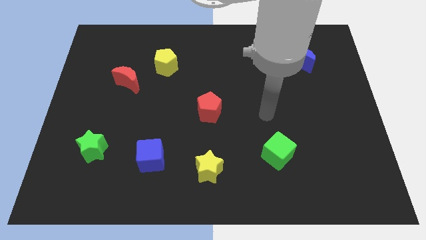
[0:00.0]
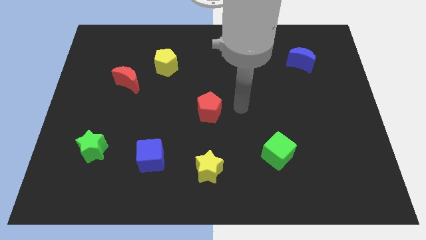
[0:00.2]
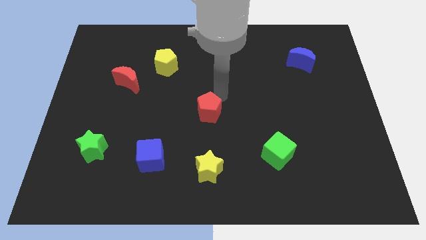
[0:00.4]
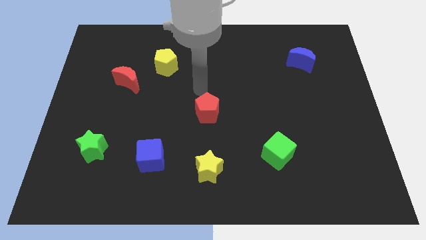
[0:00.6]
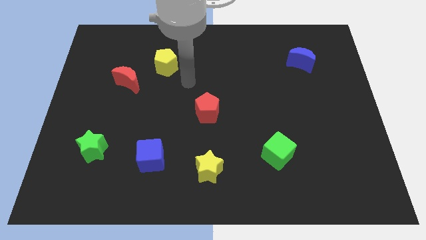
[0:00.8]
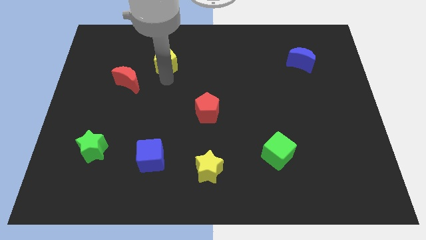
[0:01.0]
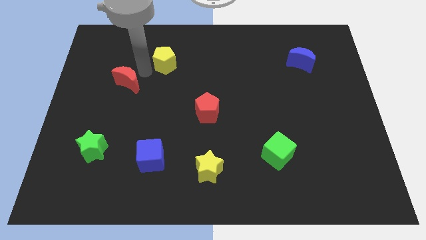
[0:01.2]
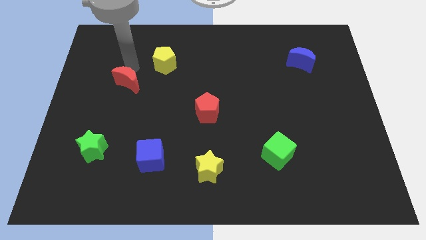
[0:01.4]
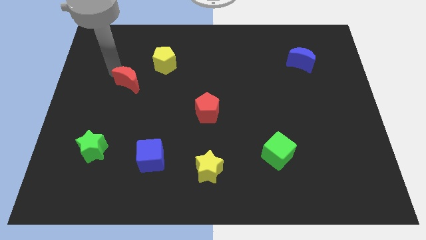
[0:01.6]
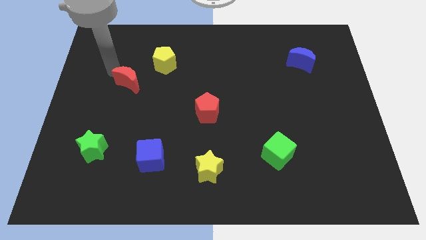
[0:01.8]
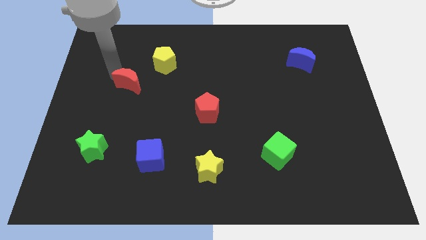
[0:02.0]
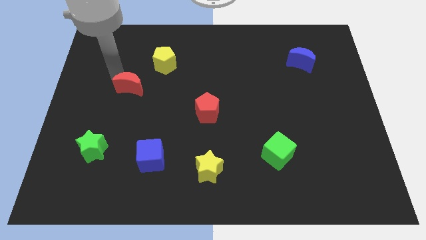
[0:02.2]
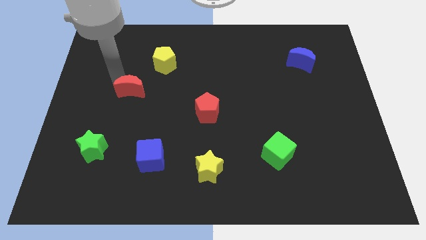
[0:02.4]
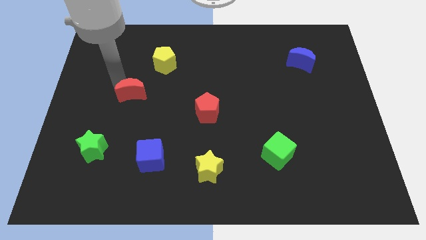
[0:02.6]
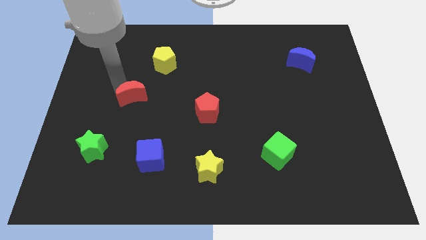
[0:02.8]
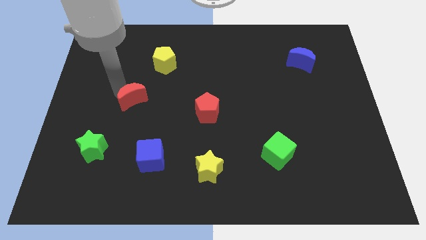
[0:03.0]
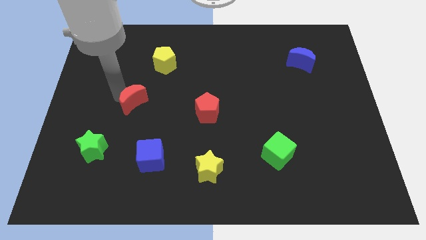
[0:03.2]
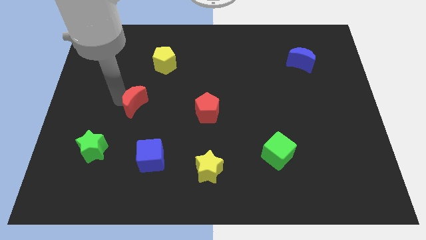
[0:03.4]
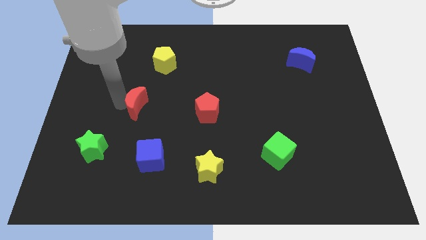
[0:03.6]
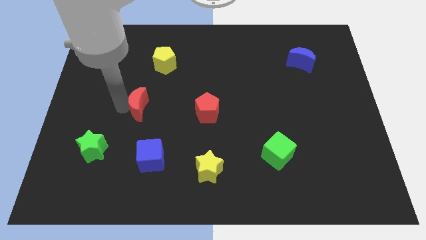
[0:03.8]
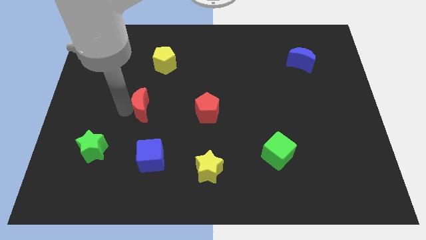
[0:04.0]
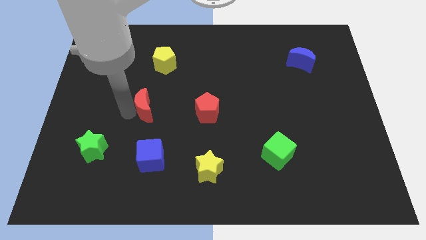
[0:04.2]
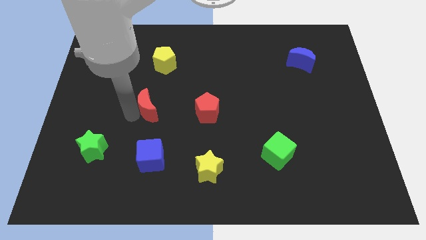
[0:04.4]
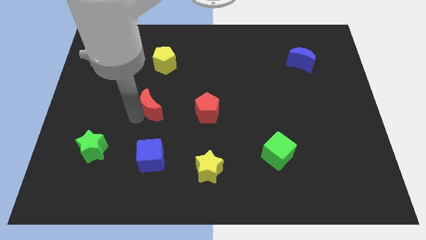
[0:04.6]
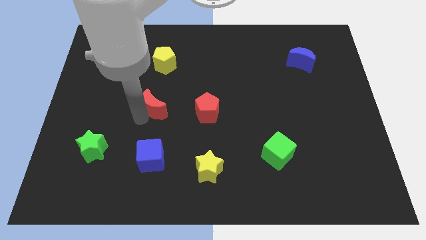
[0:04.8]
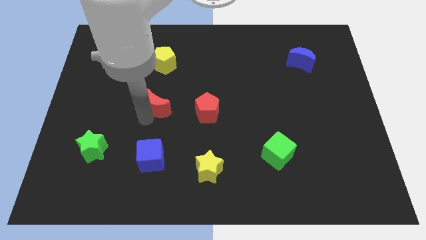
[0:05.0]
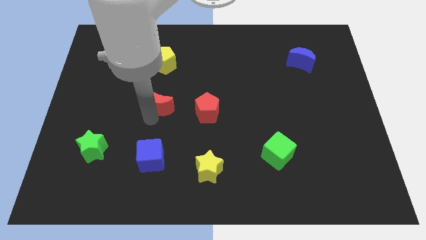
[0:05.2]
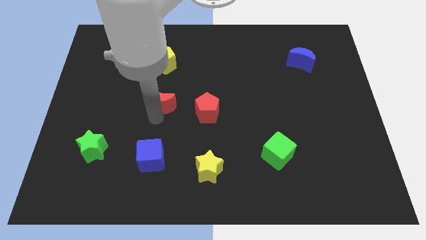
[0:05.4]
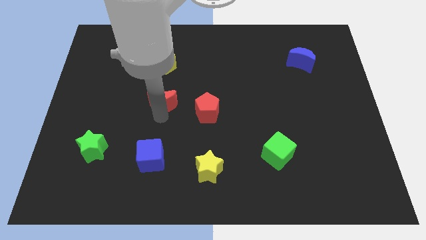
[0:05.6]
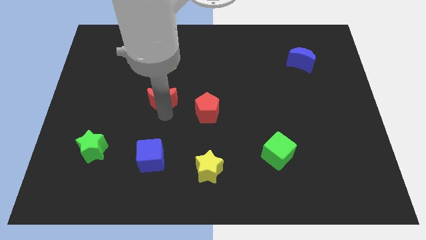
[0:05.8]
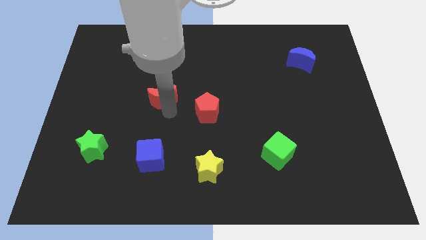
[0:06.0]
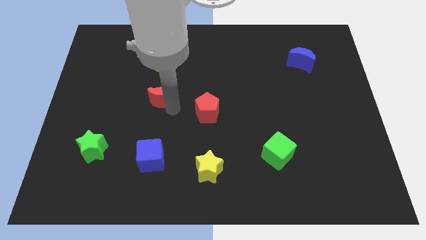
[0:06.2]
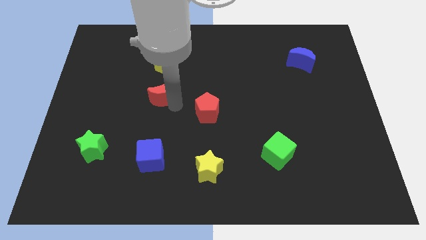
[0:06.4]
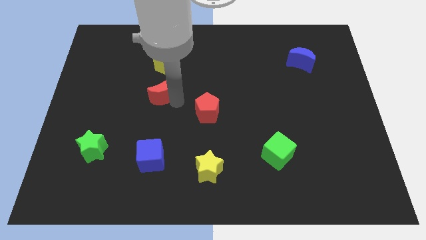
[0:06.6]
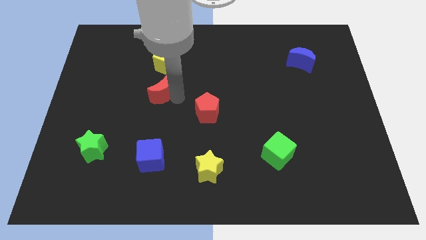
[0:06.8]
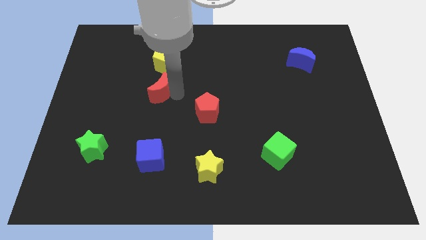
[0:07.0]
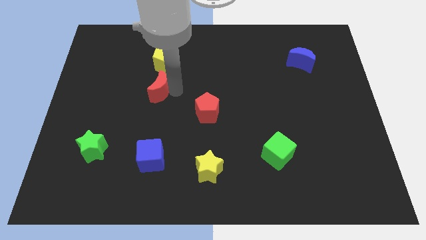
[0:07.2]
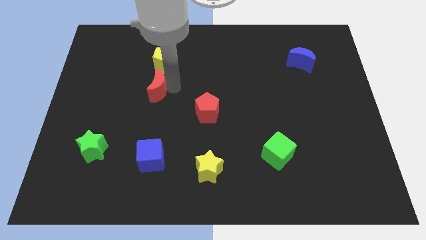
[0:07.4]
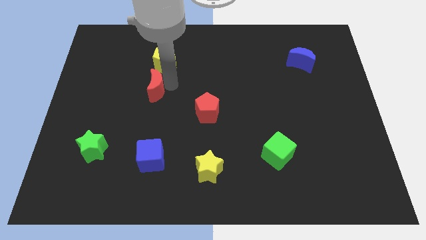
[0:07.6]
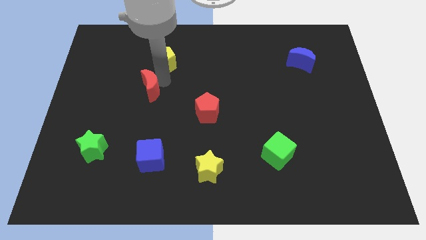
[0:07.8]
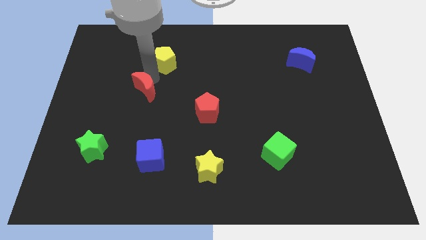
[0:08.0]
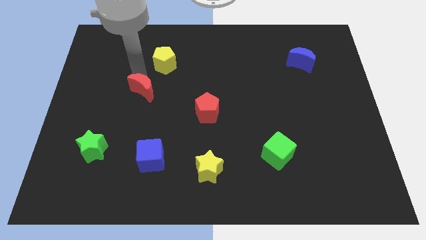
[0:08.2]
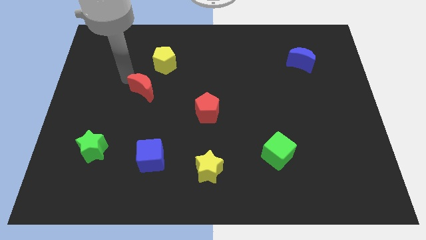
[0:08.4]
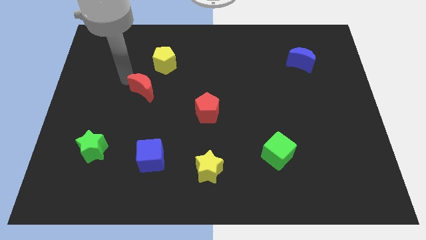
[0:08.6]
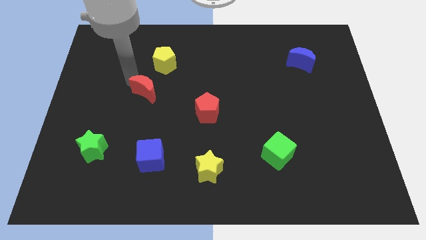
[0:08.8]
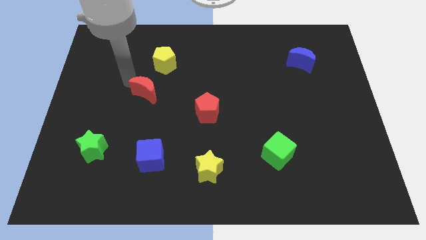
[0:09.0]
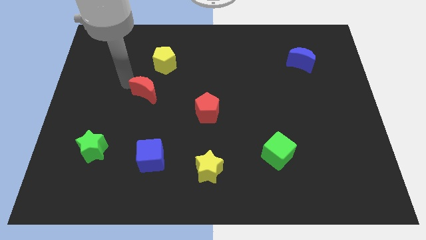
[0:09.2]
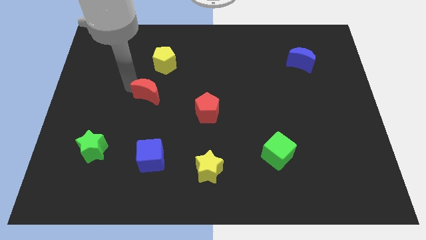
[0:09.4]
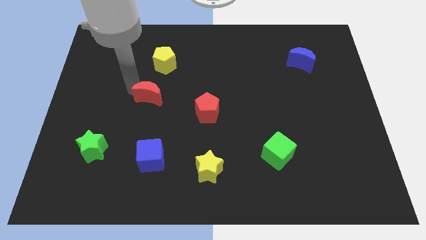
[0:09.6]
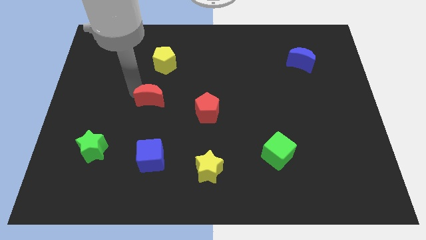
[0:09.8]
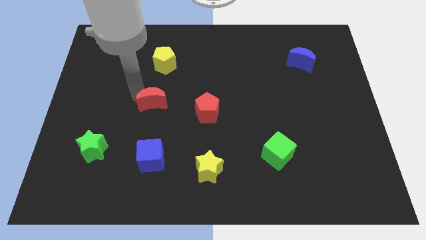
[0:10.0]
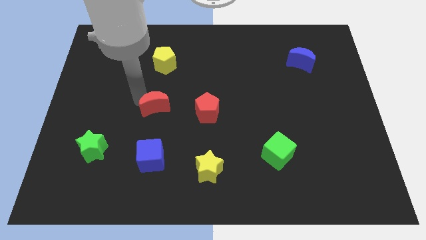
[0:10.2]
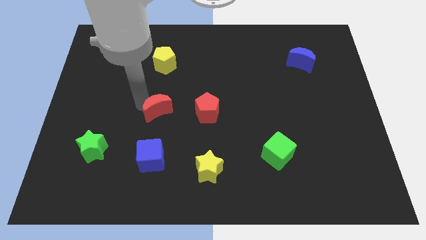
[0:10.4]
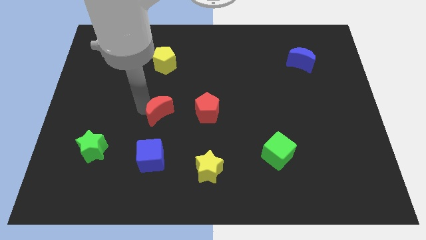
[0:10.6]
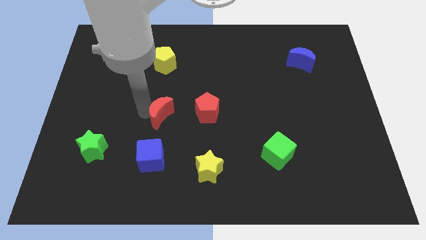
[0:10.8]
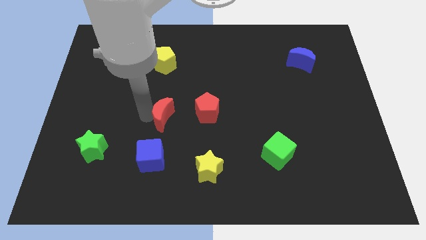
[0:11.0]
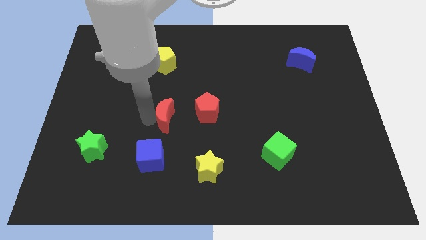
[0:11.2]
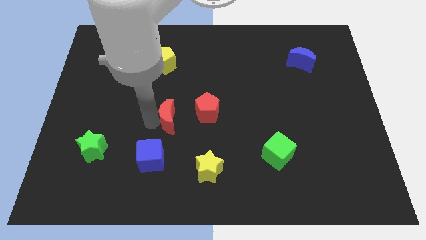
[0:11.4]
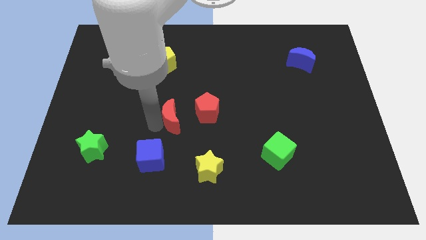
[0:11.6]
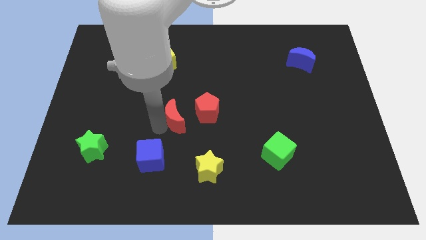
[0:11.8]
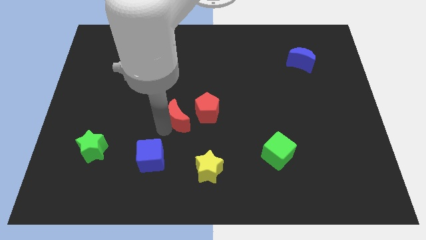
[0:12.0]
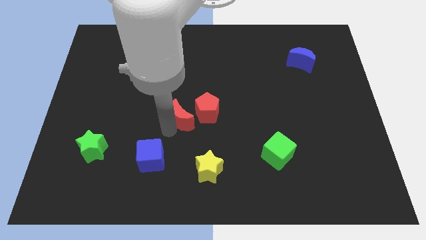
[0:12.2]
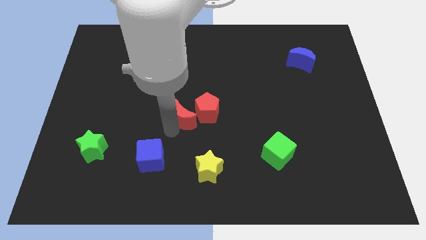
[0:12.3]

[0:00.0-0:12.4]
push the red moon close to the red pentagon
